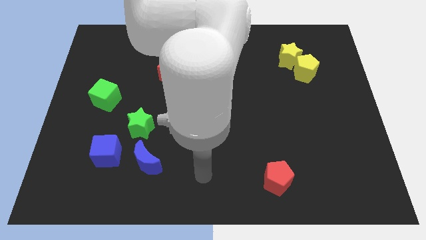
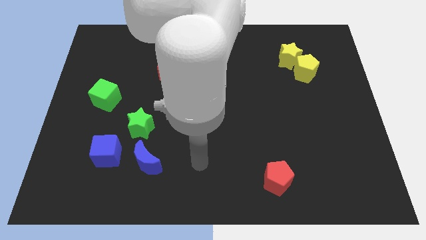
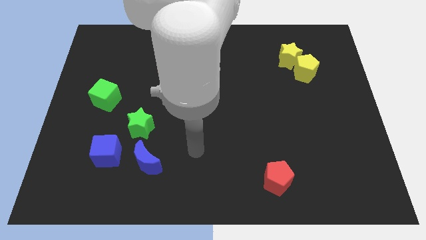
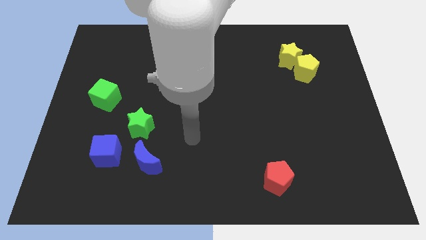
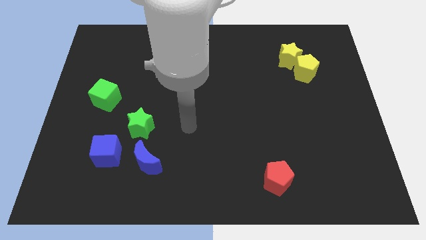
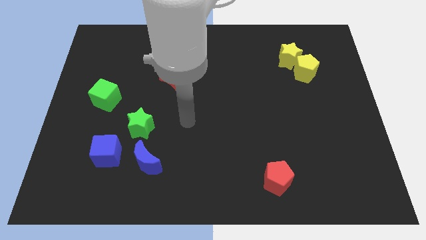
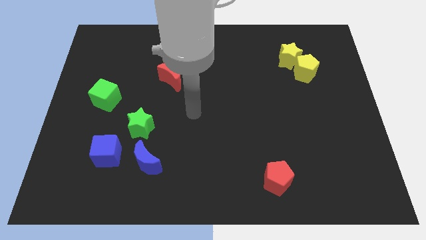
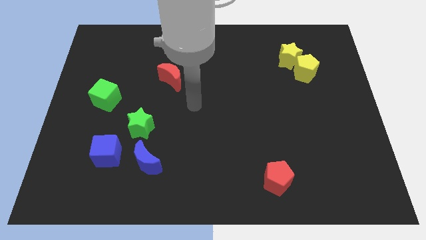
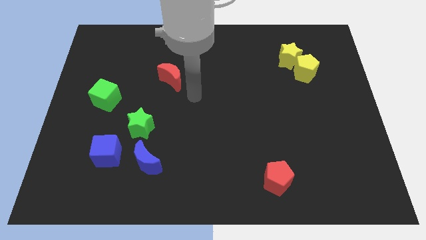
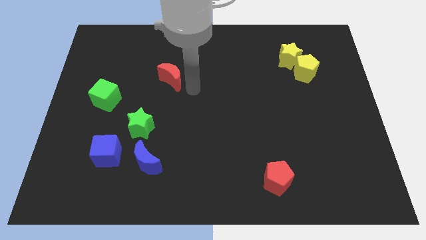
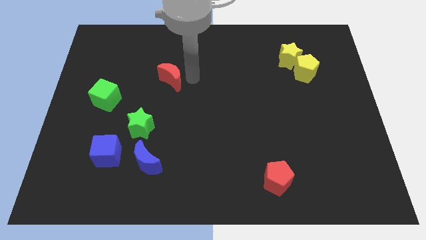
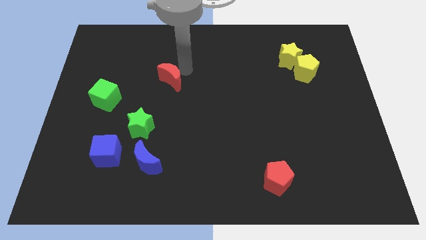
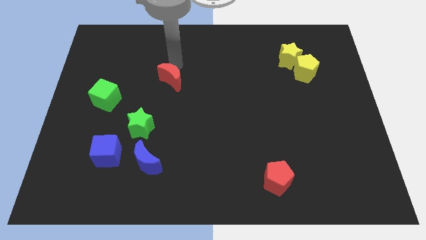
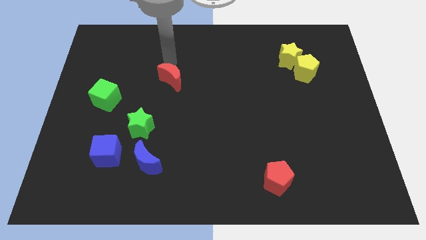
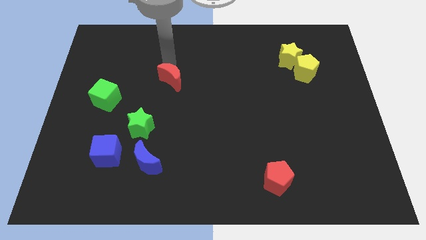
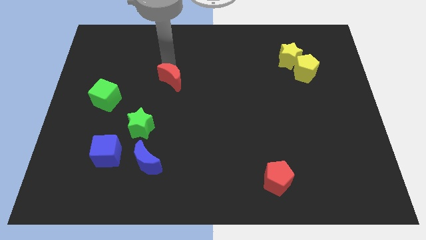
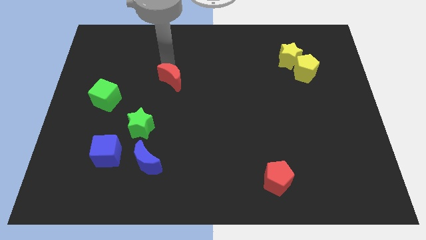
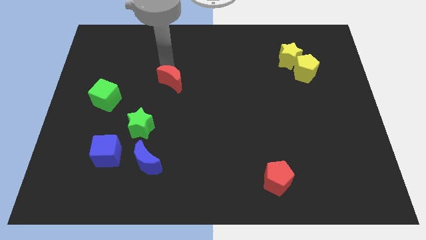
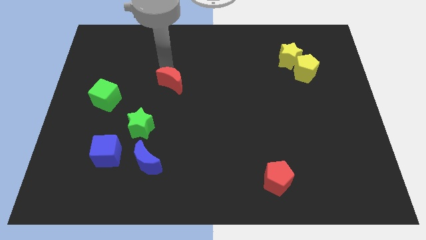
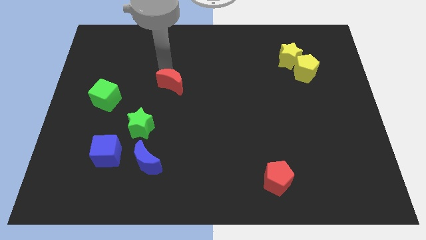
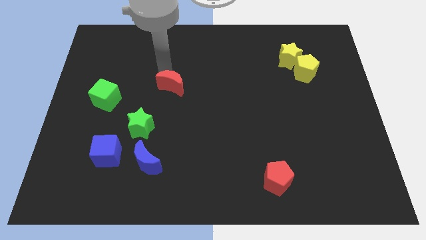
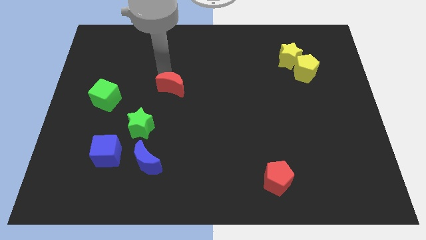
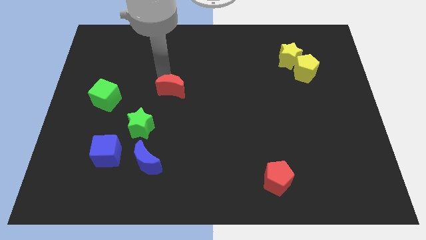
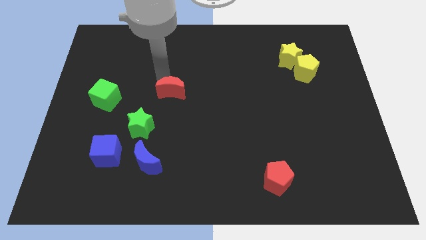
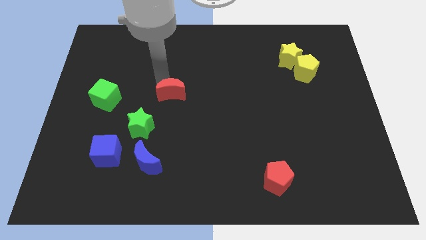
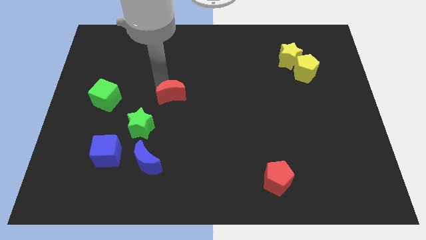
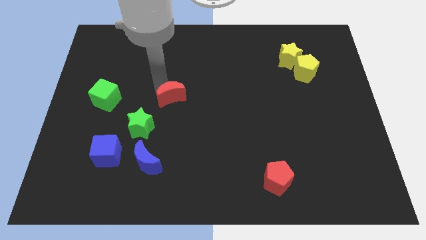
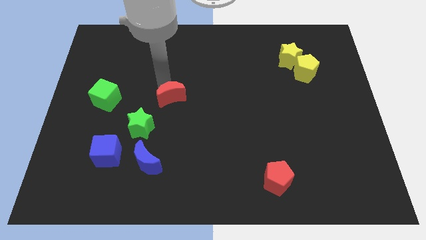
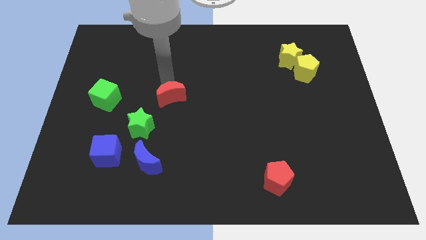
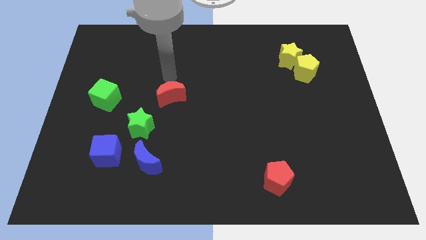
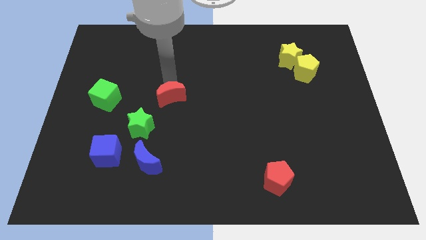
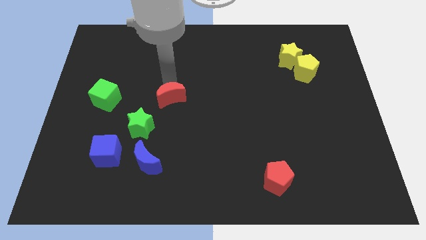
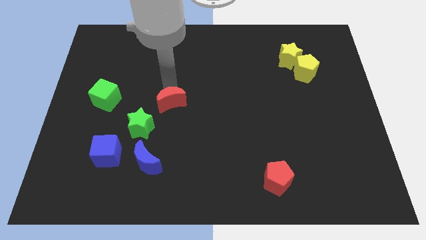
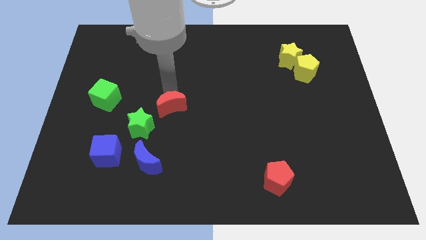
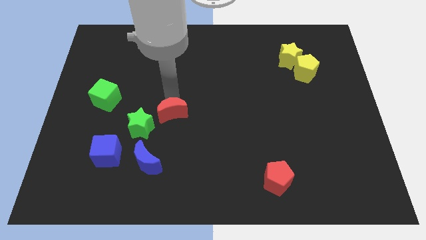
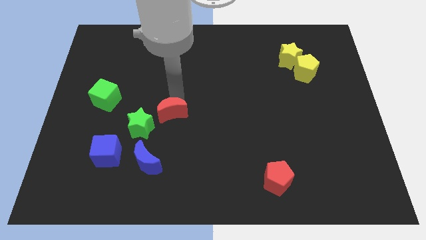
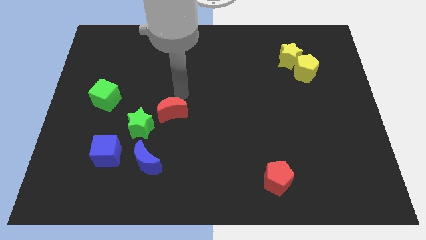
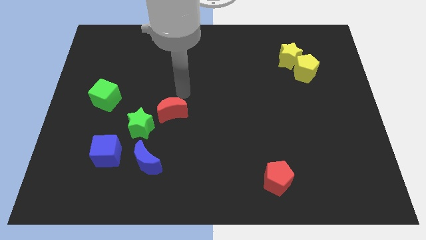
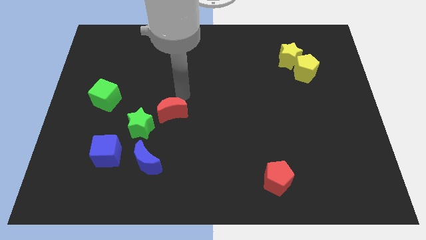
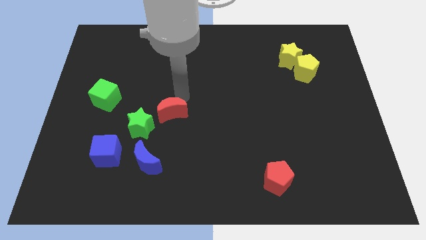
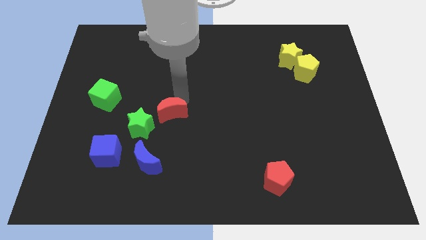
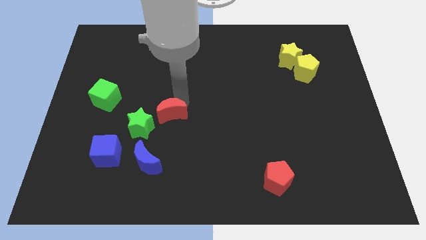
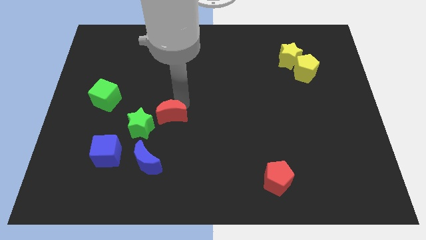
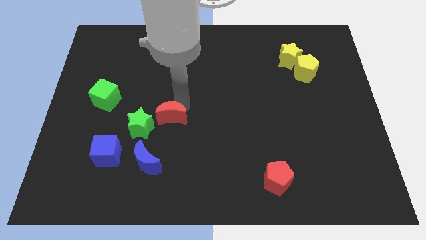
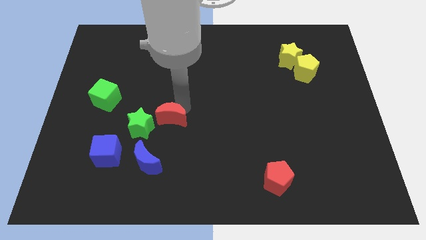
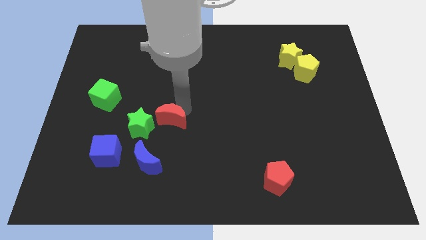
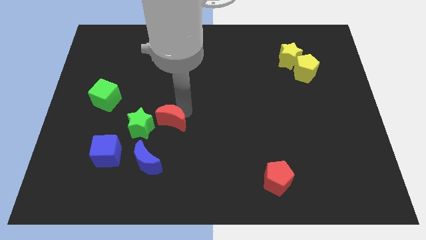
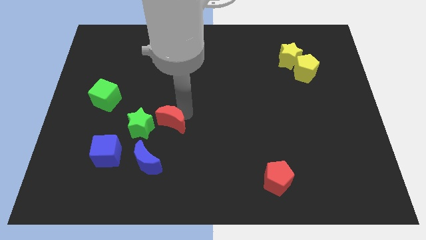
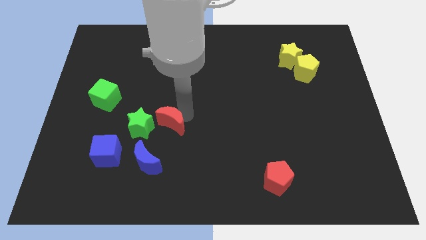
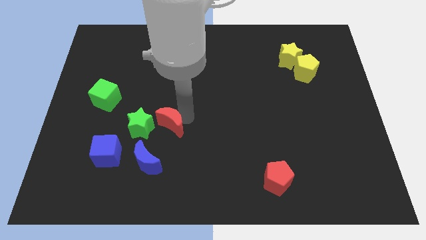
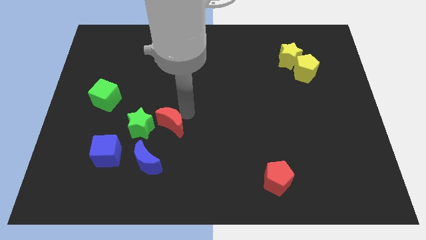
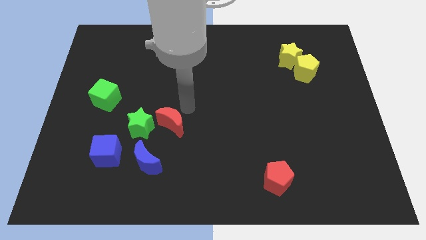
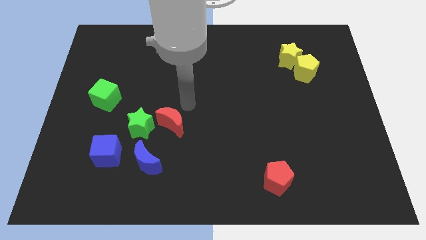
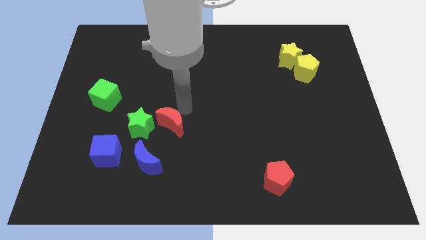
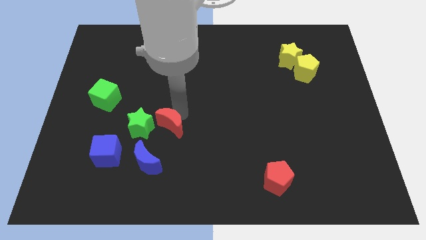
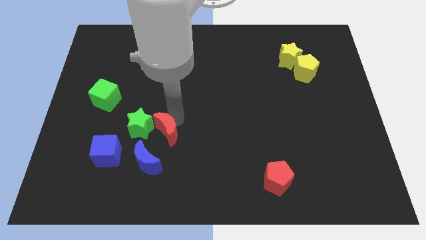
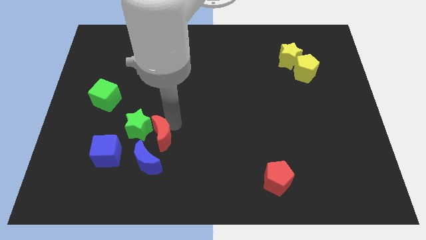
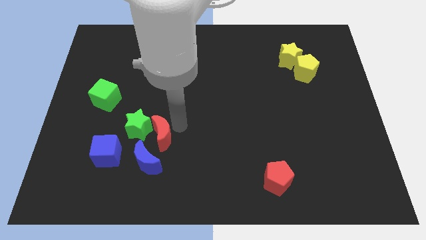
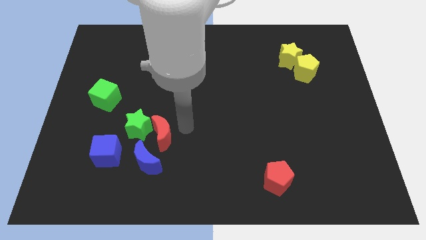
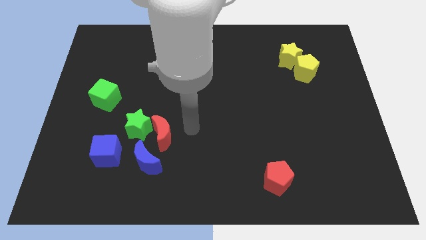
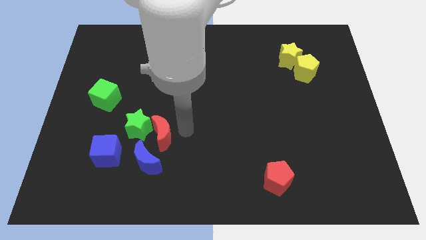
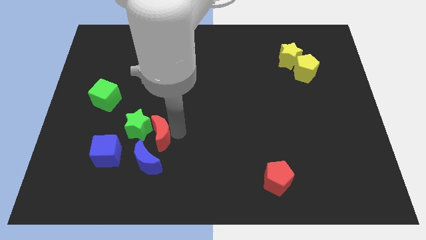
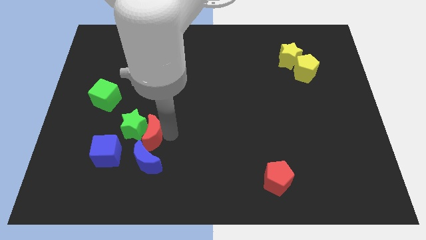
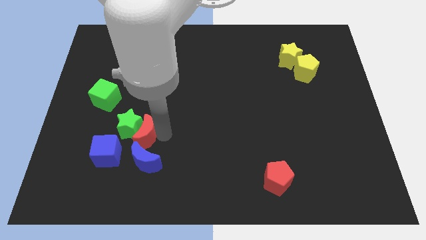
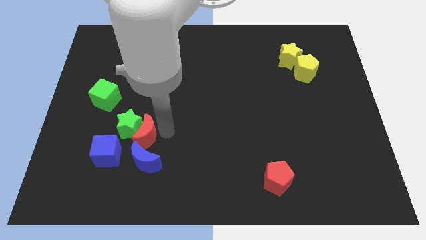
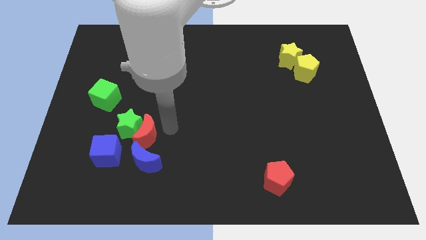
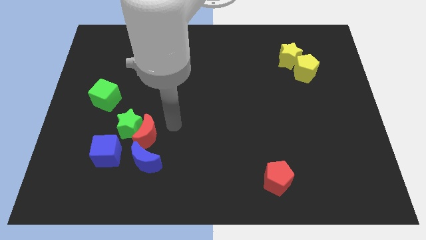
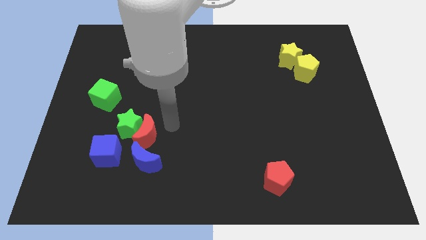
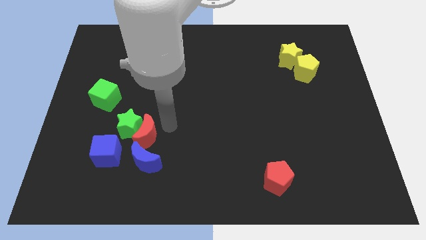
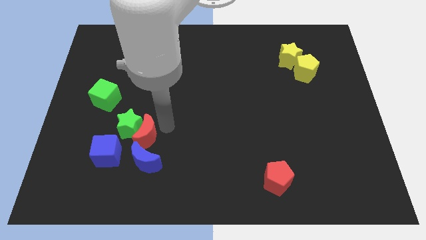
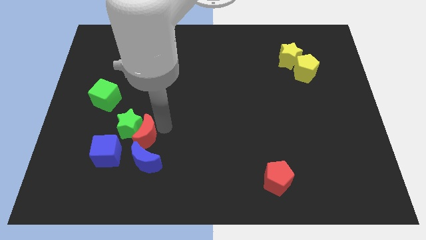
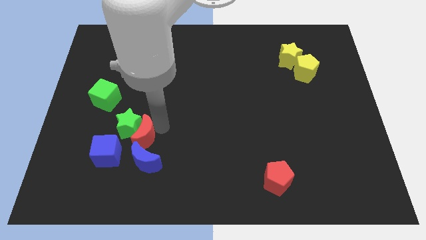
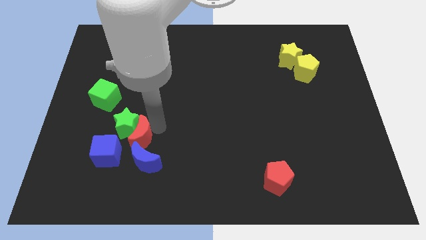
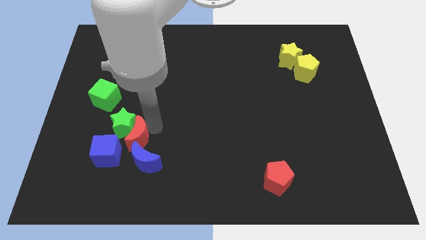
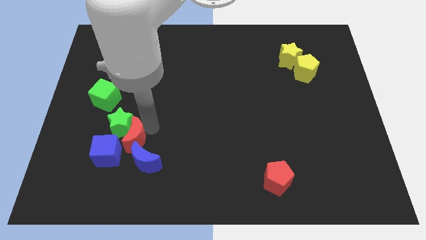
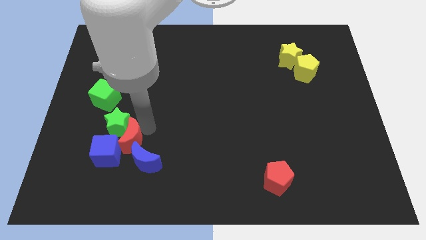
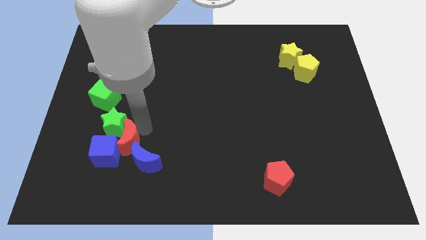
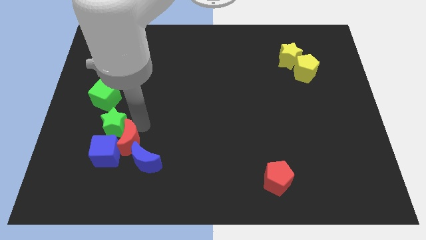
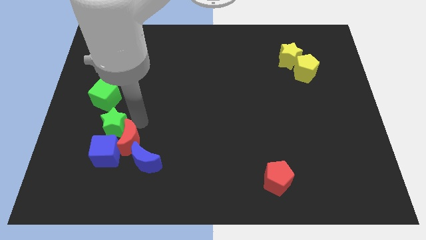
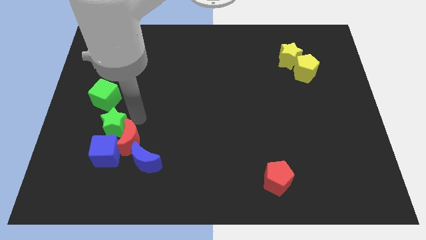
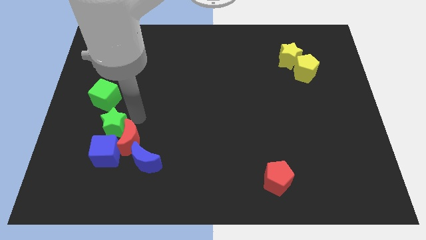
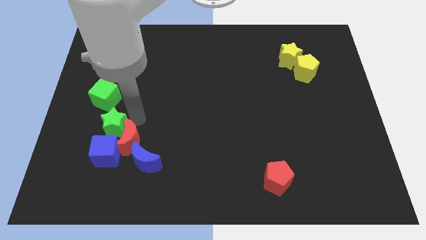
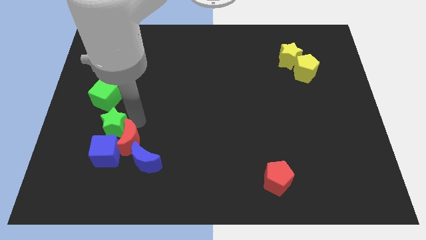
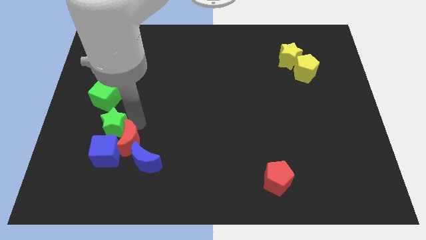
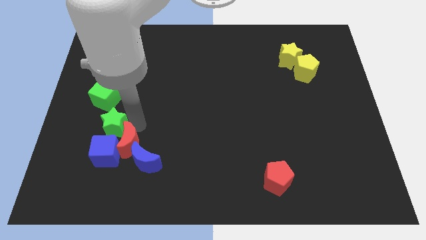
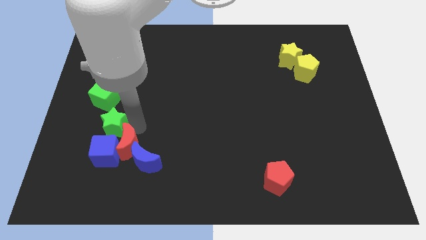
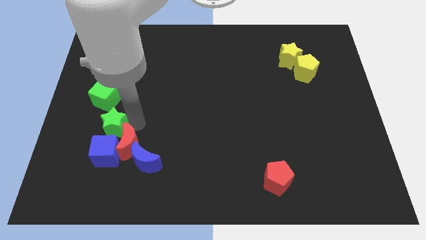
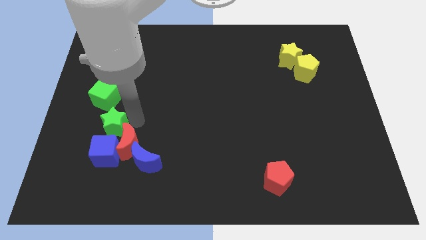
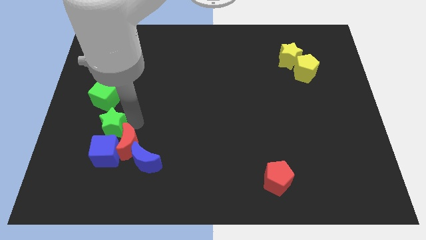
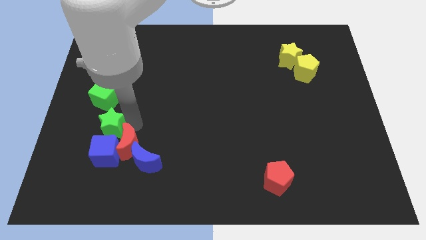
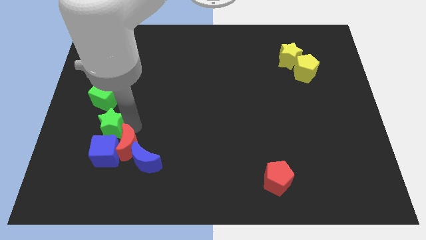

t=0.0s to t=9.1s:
move the red moon diagonally down and to the right of the blue cube
